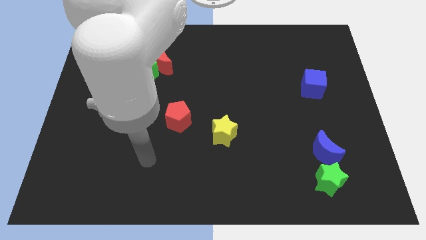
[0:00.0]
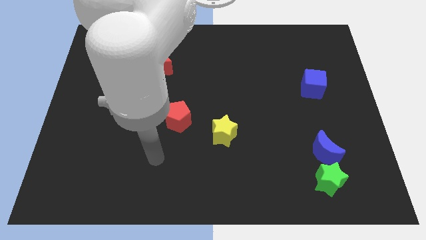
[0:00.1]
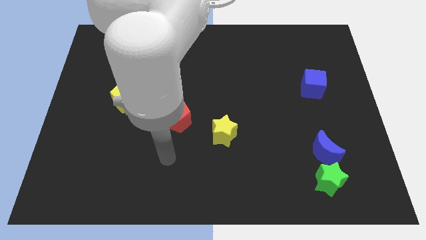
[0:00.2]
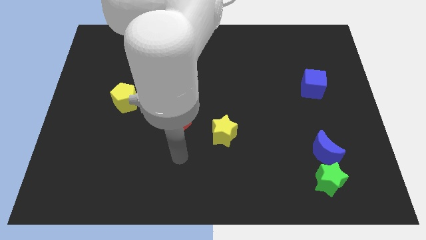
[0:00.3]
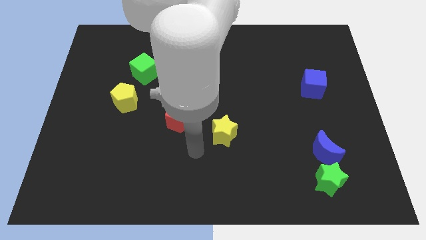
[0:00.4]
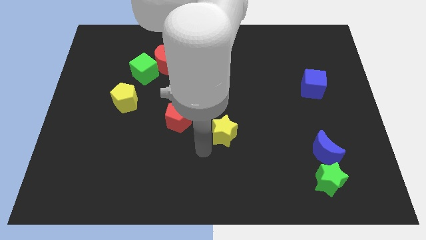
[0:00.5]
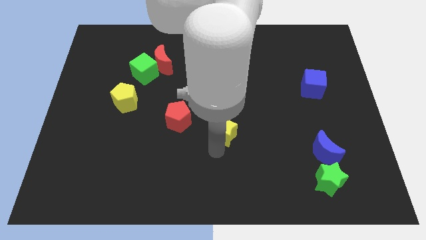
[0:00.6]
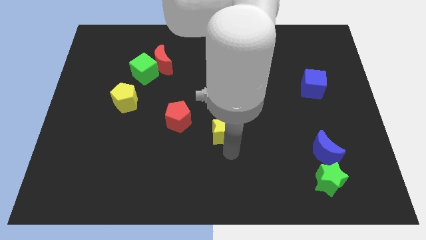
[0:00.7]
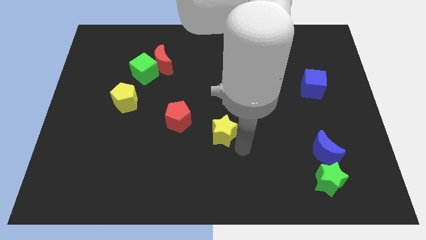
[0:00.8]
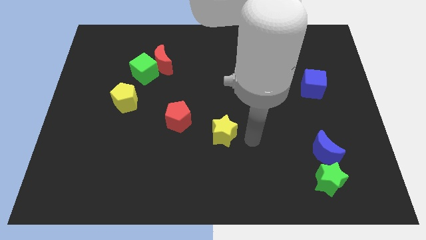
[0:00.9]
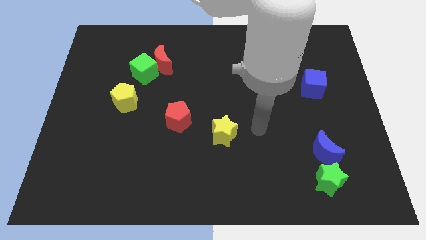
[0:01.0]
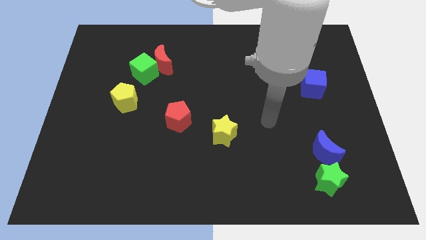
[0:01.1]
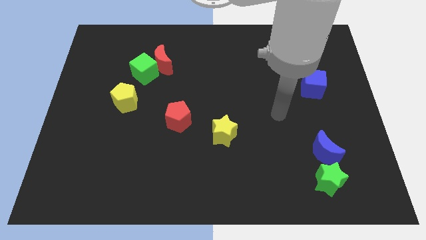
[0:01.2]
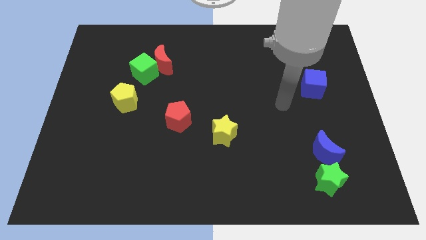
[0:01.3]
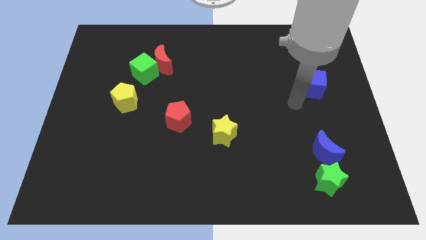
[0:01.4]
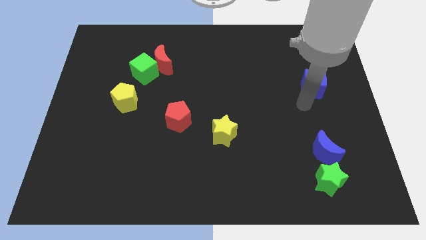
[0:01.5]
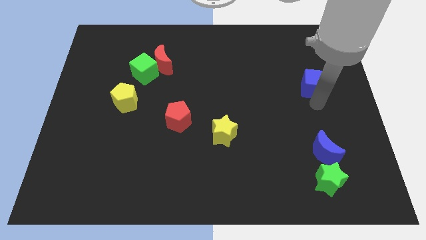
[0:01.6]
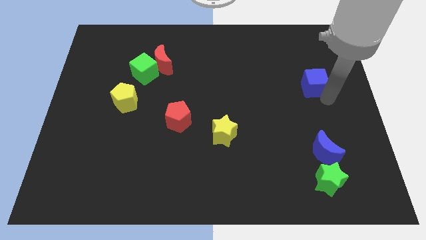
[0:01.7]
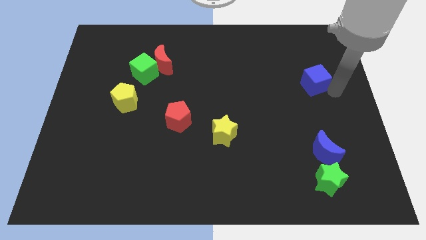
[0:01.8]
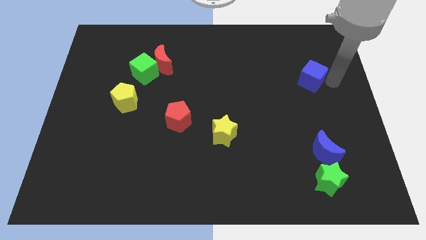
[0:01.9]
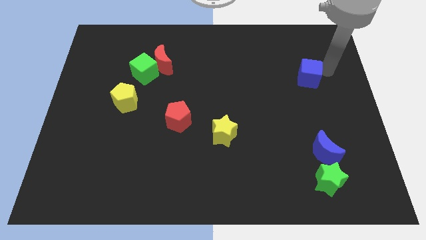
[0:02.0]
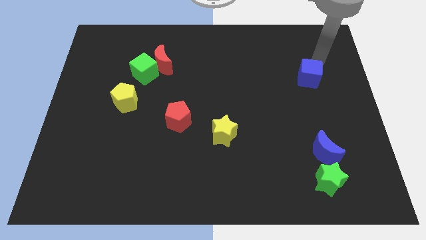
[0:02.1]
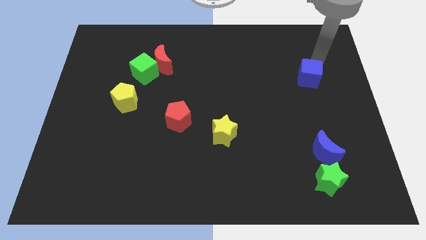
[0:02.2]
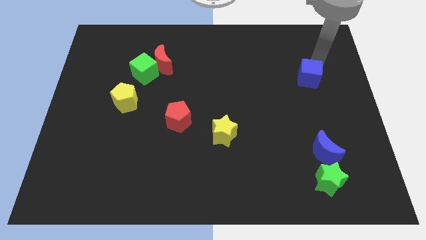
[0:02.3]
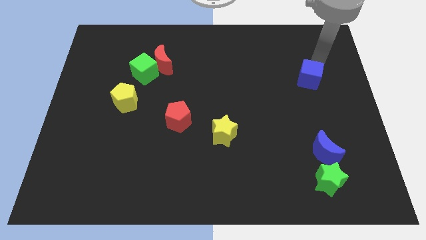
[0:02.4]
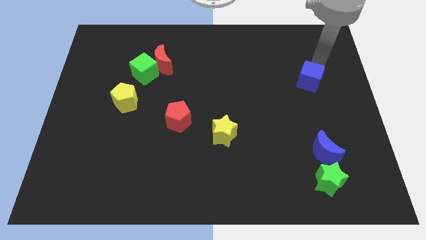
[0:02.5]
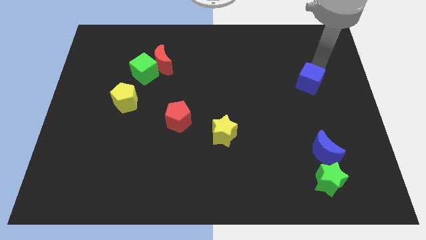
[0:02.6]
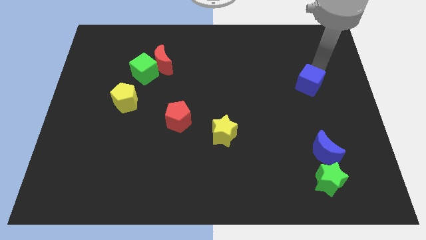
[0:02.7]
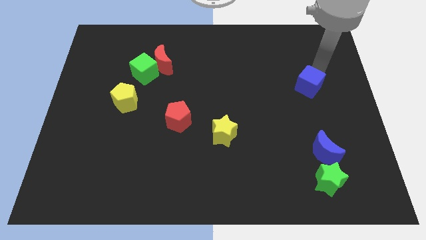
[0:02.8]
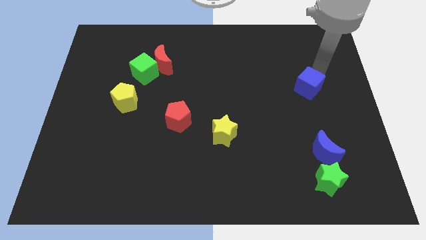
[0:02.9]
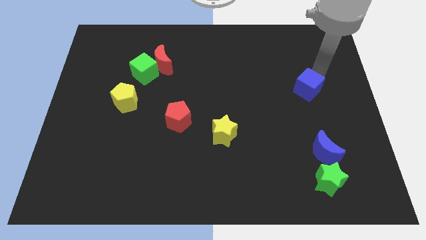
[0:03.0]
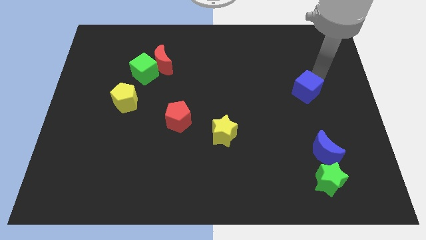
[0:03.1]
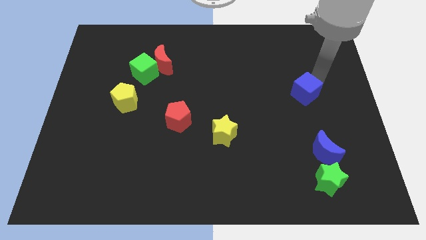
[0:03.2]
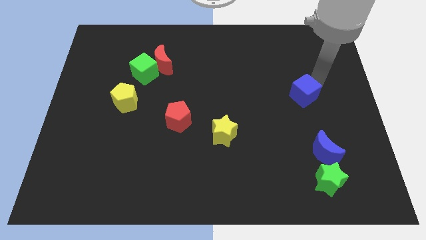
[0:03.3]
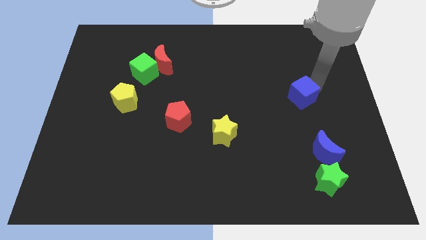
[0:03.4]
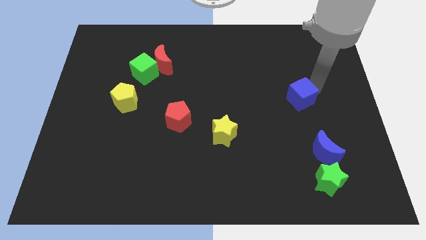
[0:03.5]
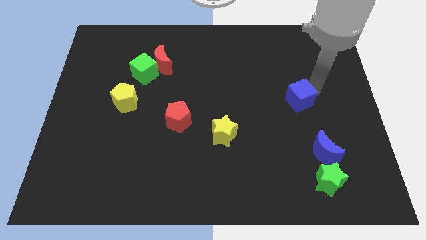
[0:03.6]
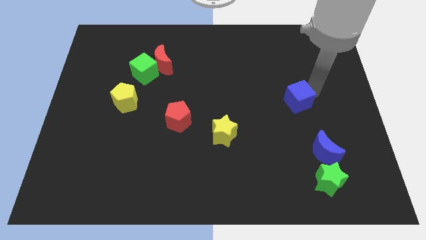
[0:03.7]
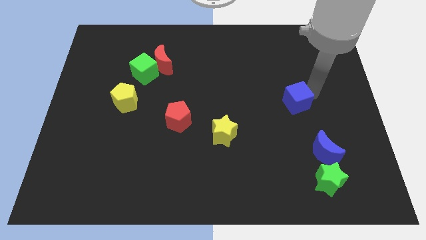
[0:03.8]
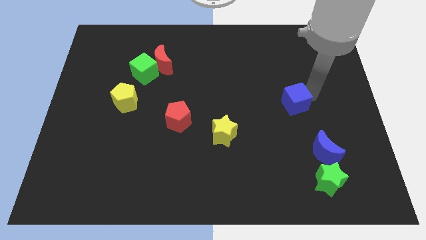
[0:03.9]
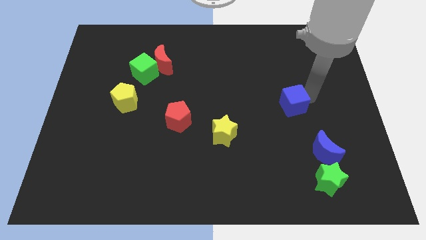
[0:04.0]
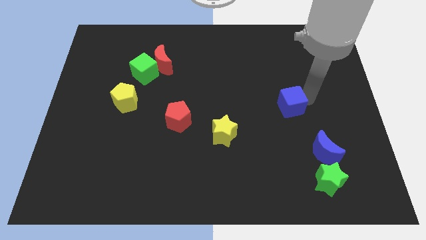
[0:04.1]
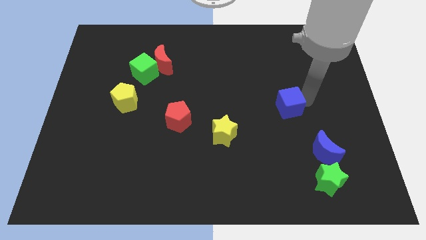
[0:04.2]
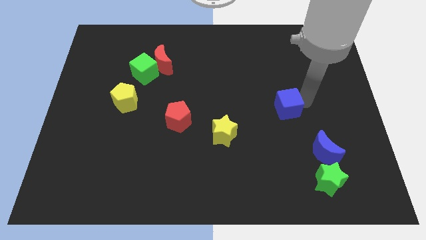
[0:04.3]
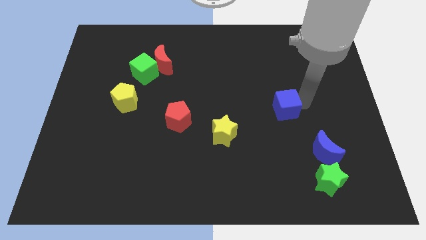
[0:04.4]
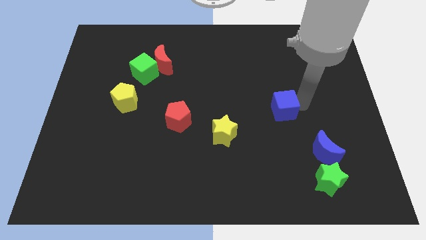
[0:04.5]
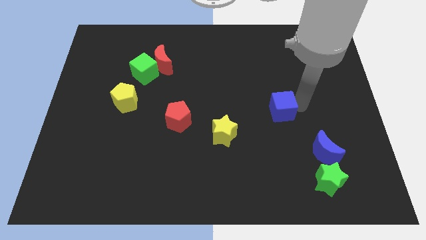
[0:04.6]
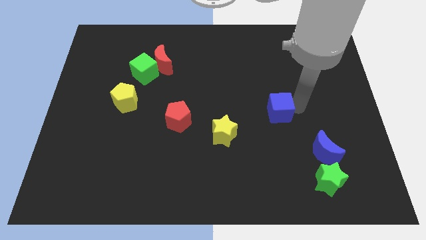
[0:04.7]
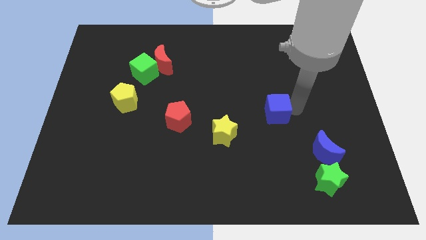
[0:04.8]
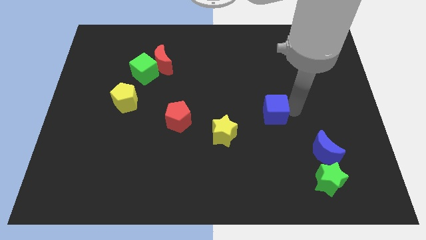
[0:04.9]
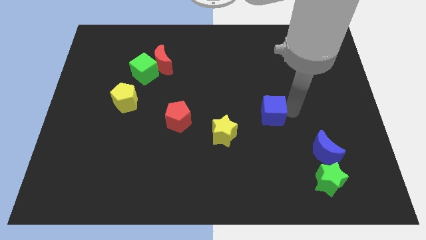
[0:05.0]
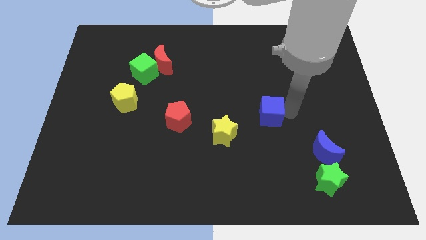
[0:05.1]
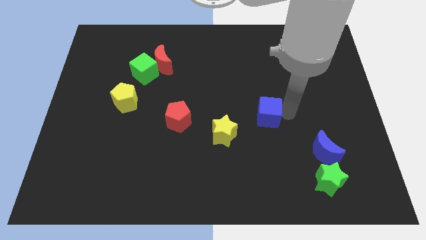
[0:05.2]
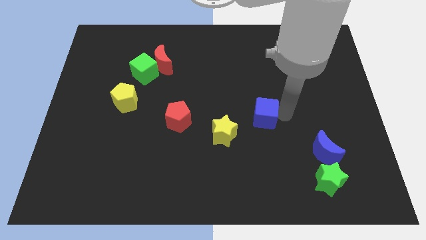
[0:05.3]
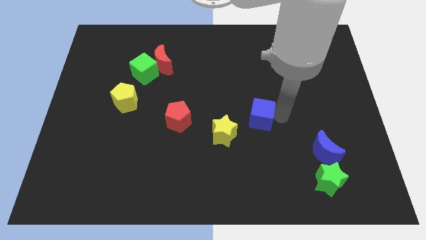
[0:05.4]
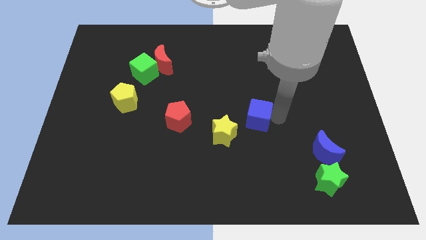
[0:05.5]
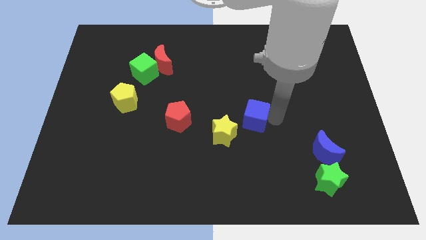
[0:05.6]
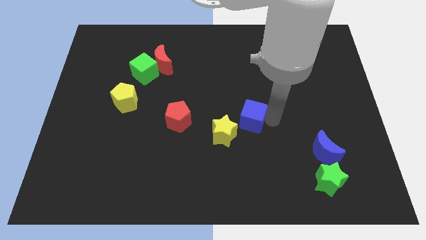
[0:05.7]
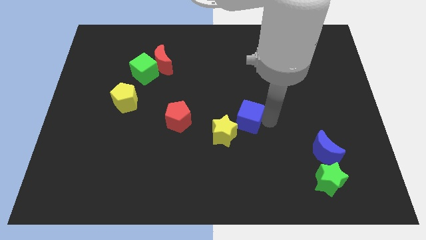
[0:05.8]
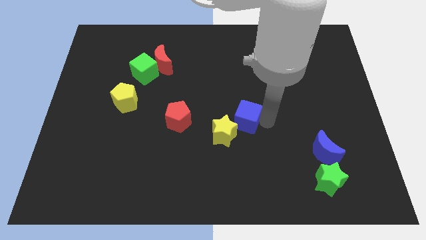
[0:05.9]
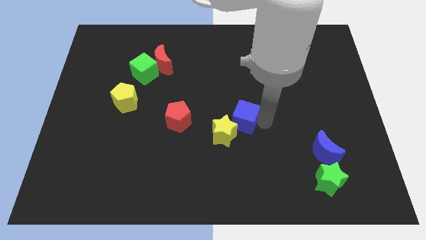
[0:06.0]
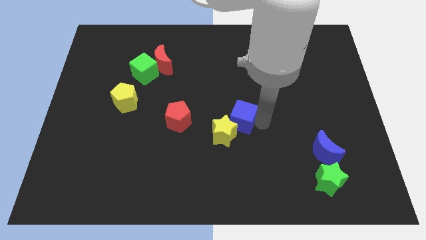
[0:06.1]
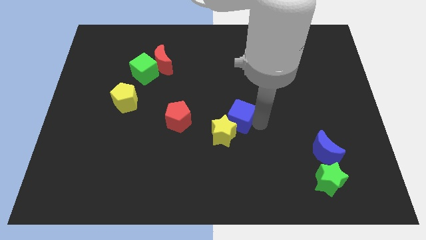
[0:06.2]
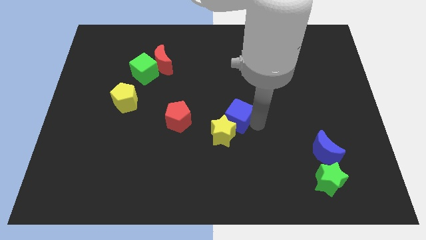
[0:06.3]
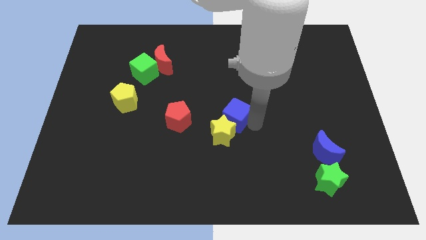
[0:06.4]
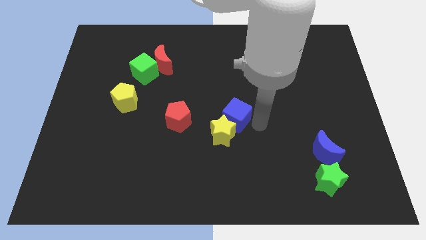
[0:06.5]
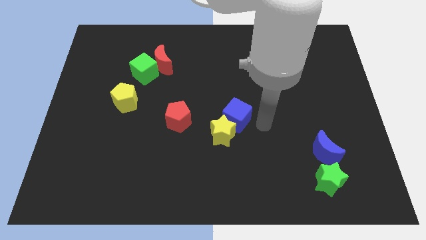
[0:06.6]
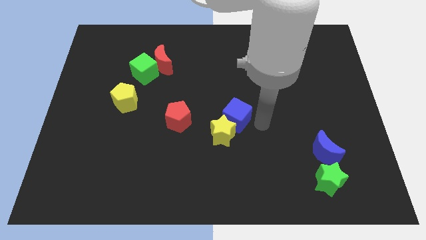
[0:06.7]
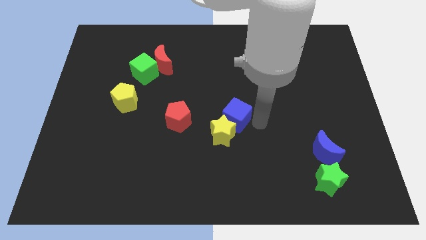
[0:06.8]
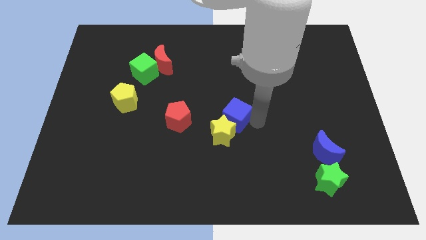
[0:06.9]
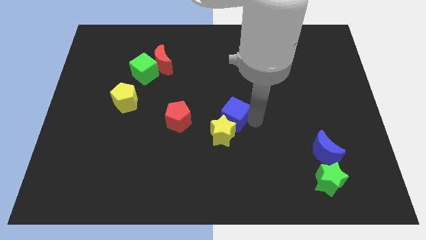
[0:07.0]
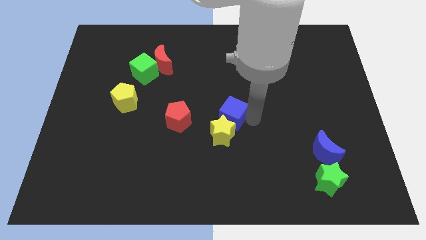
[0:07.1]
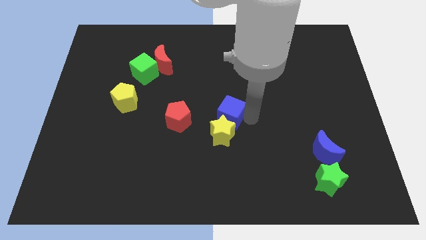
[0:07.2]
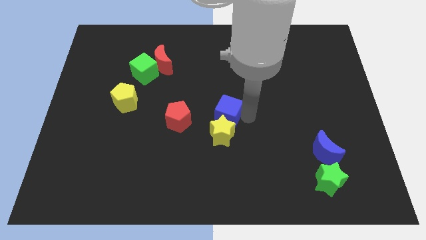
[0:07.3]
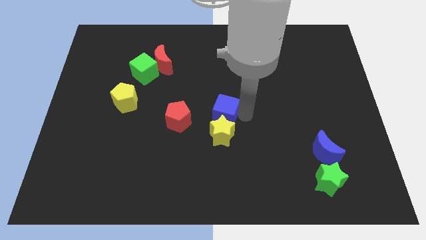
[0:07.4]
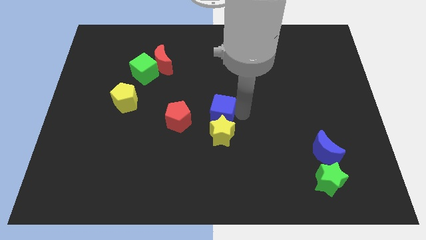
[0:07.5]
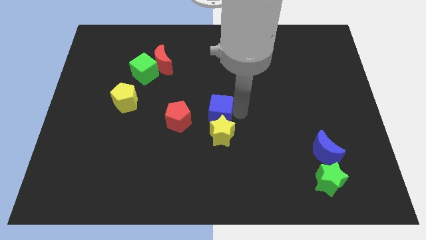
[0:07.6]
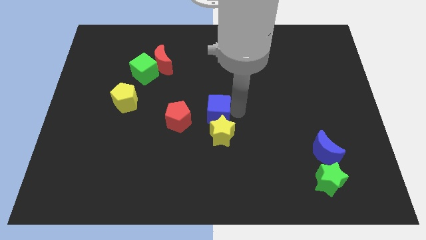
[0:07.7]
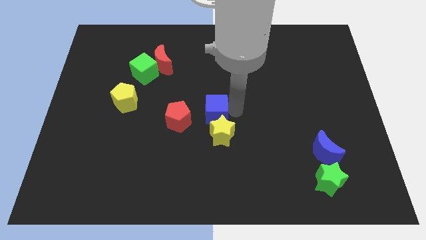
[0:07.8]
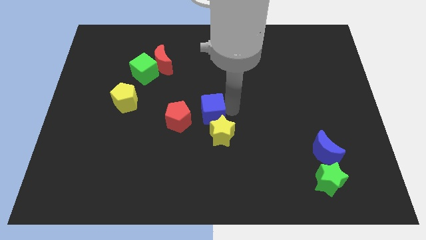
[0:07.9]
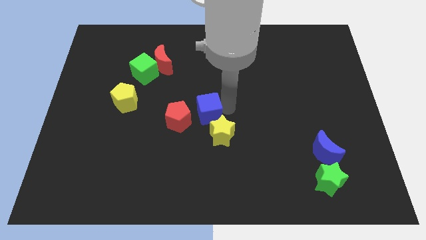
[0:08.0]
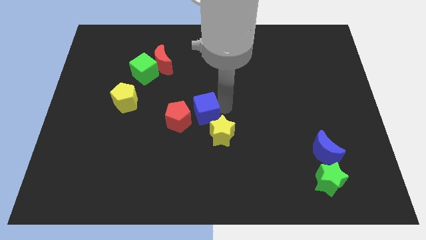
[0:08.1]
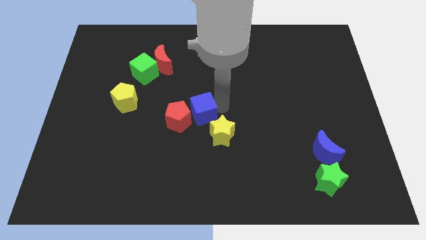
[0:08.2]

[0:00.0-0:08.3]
slide the blue cube next to the red pentagon
